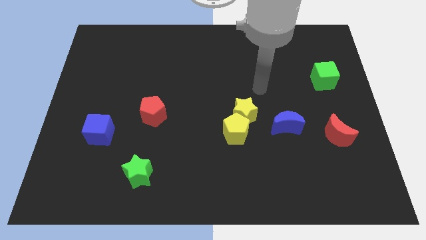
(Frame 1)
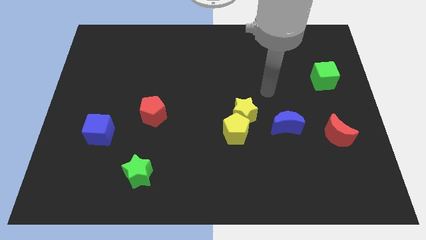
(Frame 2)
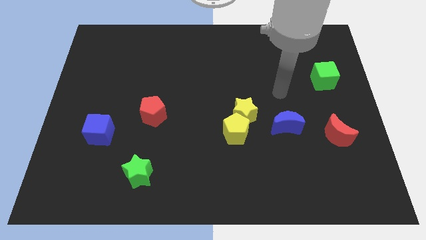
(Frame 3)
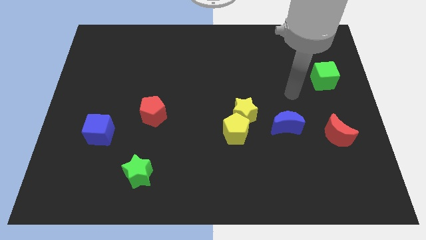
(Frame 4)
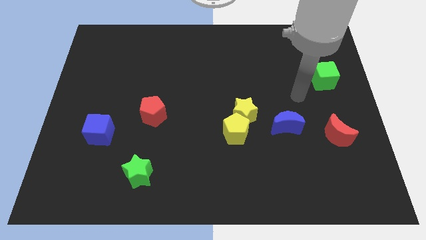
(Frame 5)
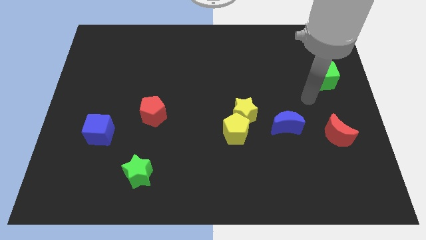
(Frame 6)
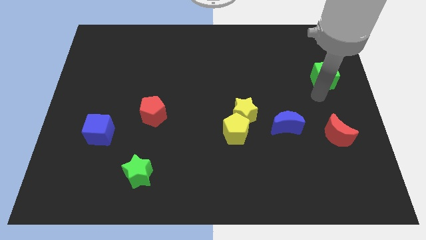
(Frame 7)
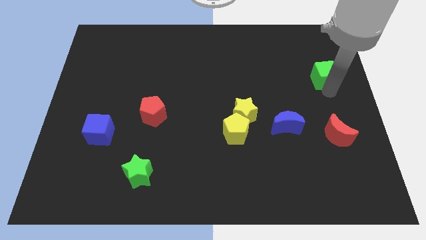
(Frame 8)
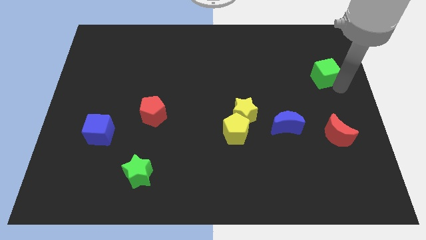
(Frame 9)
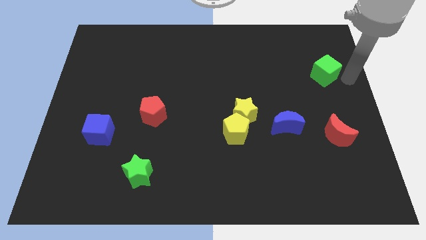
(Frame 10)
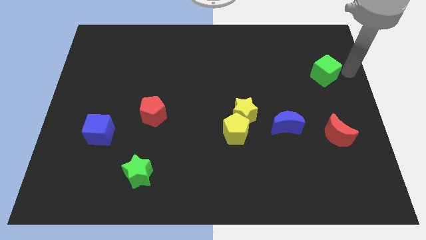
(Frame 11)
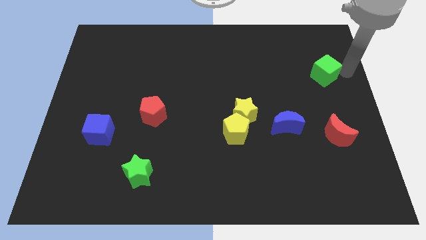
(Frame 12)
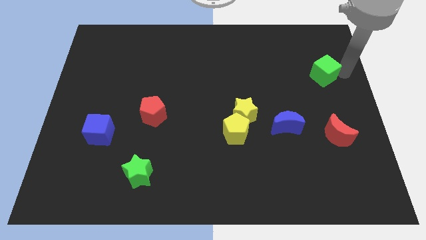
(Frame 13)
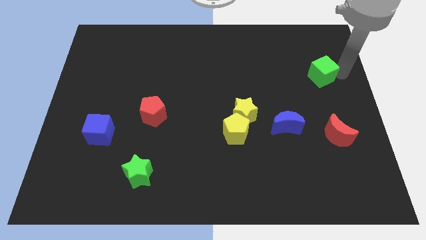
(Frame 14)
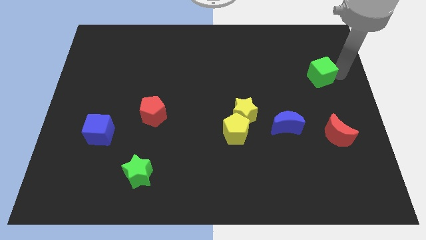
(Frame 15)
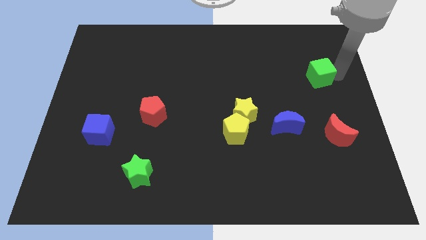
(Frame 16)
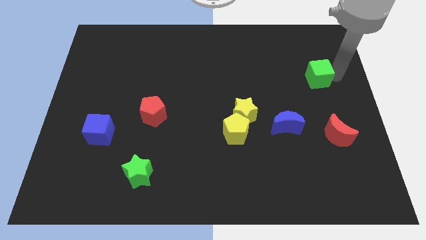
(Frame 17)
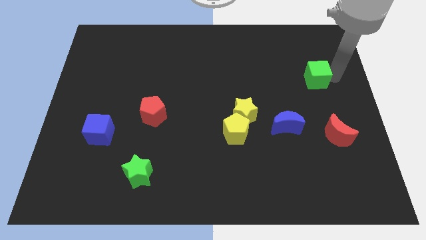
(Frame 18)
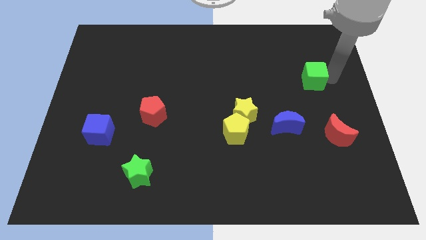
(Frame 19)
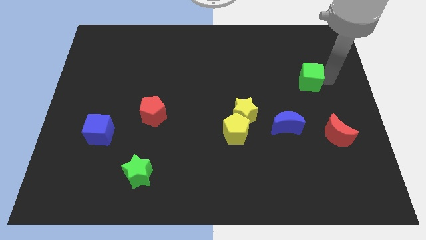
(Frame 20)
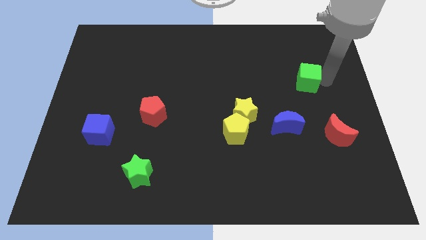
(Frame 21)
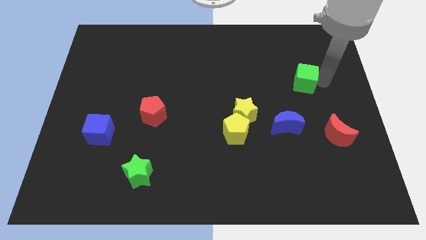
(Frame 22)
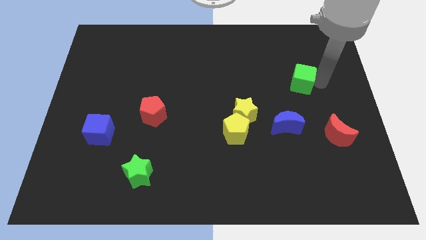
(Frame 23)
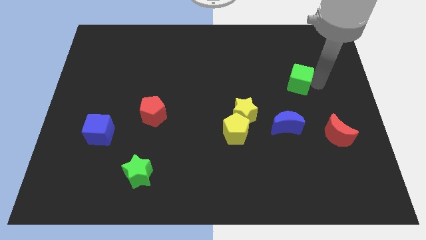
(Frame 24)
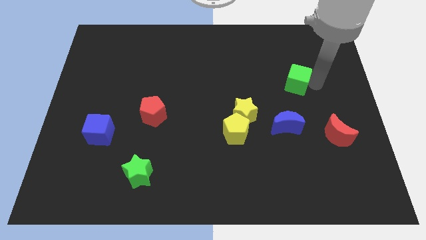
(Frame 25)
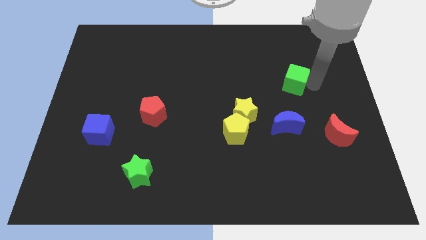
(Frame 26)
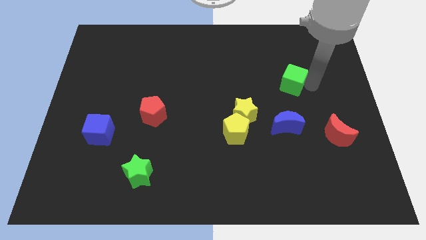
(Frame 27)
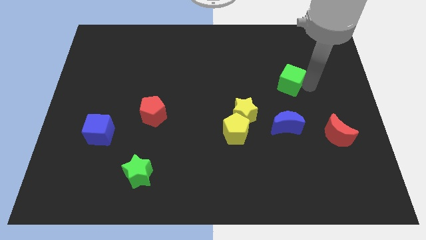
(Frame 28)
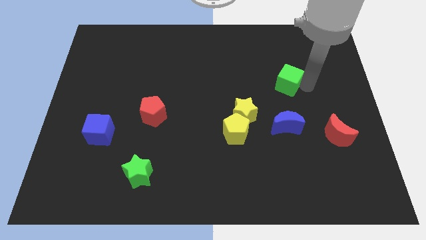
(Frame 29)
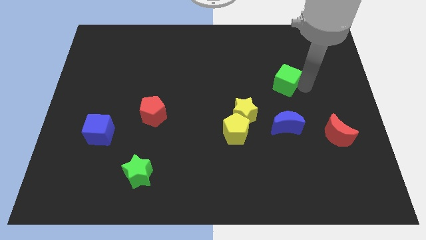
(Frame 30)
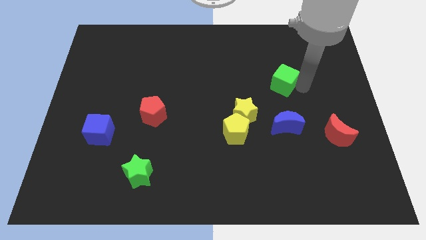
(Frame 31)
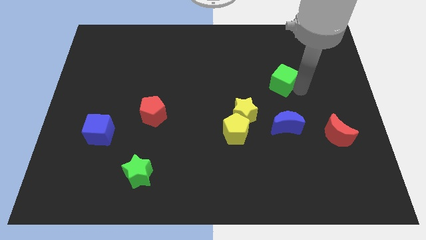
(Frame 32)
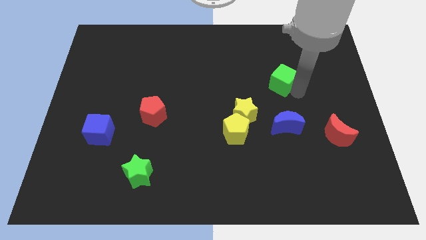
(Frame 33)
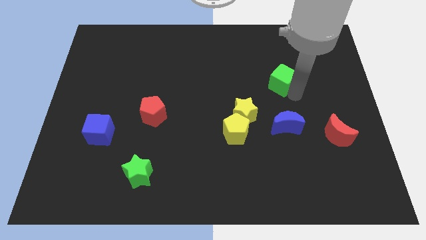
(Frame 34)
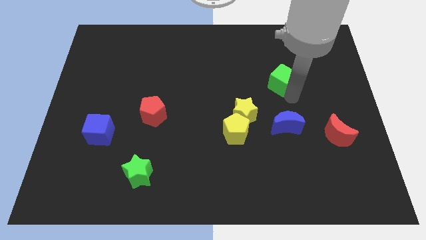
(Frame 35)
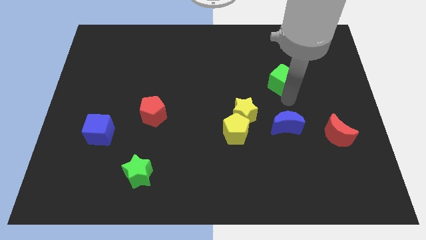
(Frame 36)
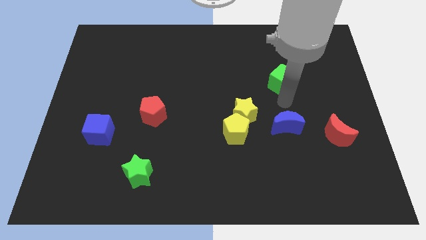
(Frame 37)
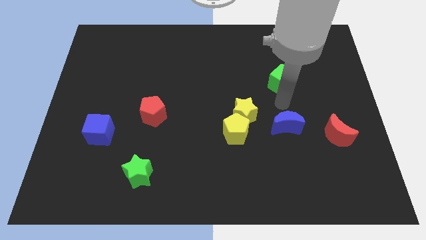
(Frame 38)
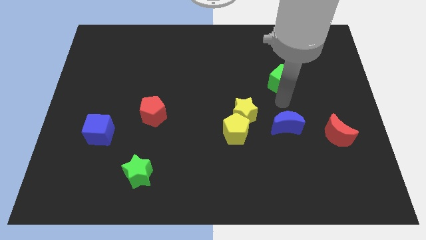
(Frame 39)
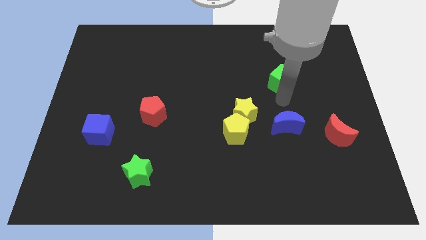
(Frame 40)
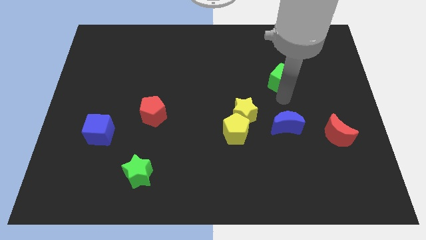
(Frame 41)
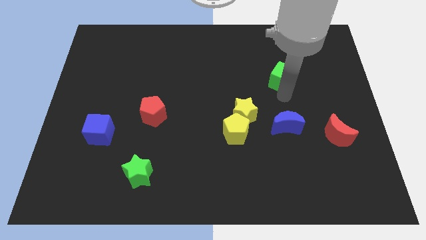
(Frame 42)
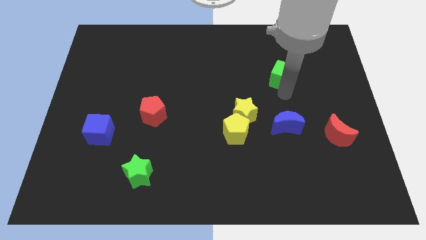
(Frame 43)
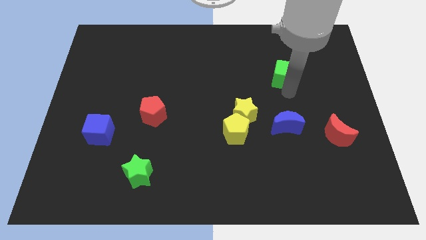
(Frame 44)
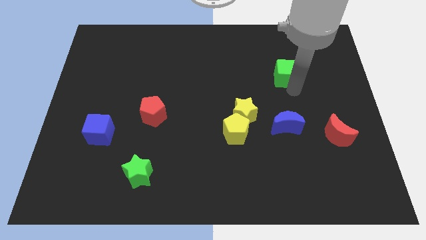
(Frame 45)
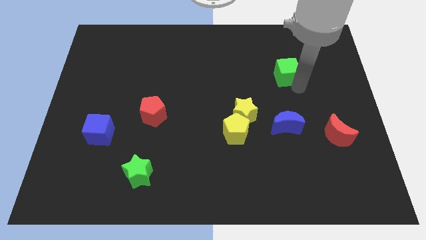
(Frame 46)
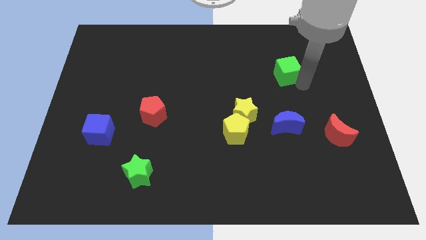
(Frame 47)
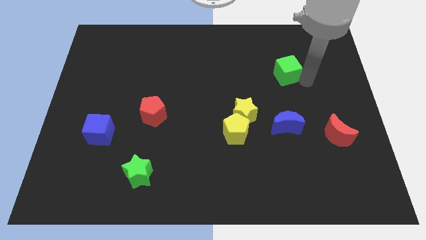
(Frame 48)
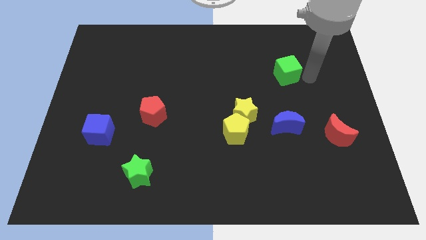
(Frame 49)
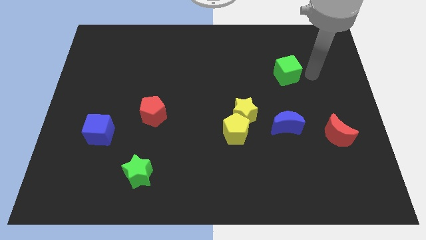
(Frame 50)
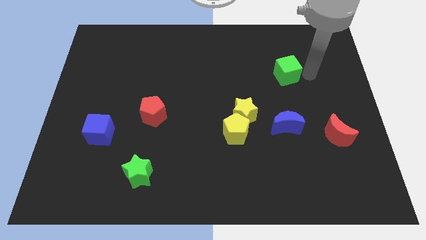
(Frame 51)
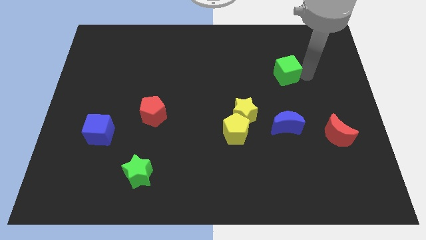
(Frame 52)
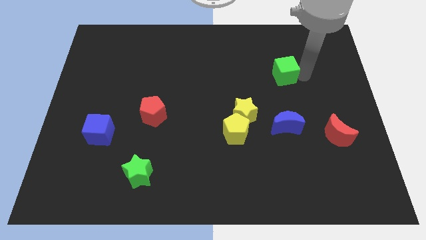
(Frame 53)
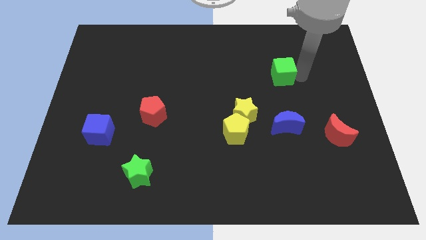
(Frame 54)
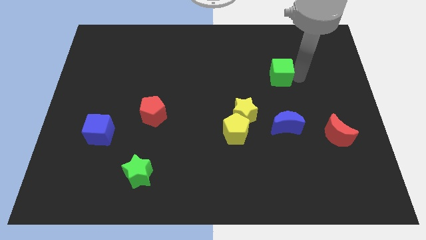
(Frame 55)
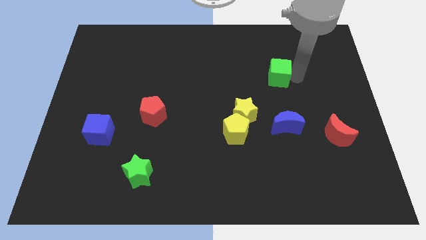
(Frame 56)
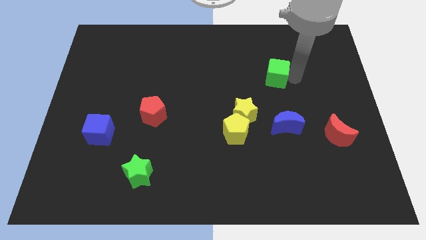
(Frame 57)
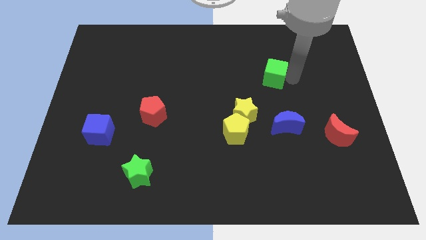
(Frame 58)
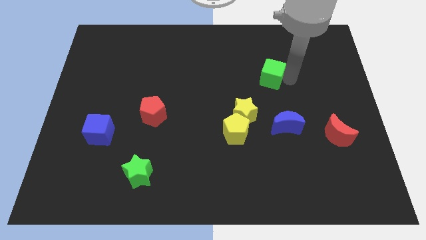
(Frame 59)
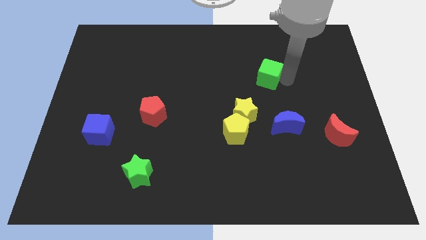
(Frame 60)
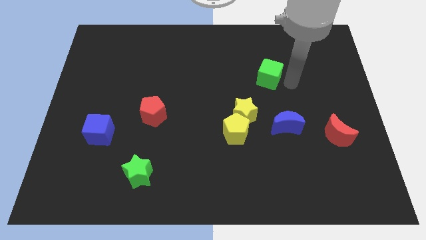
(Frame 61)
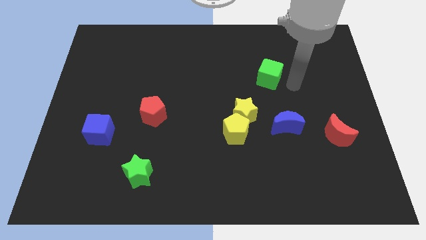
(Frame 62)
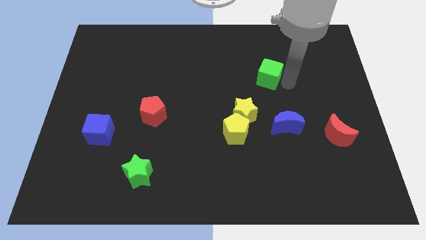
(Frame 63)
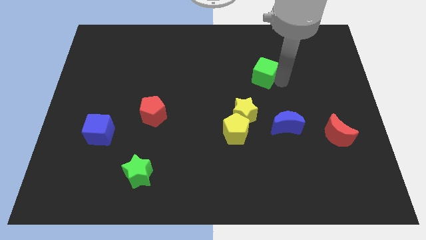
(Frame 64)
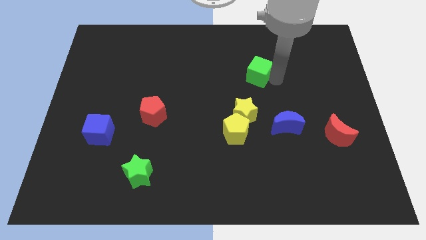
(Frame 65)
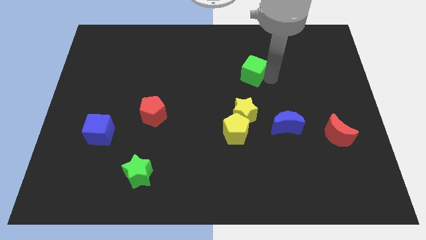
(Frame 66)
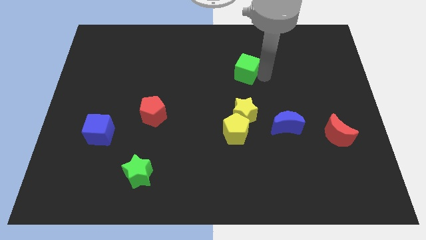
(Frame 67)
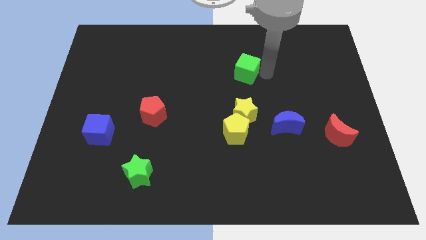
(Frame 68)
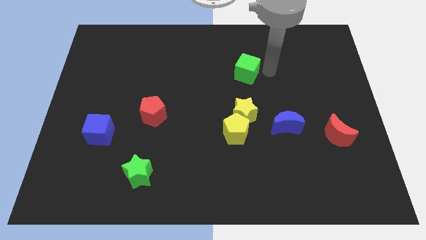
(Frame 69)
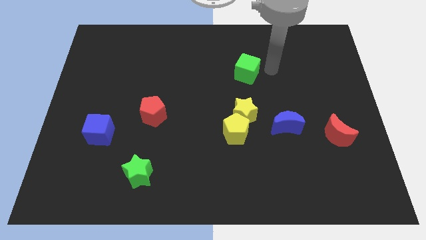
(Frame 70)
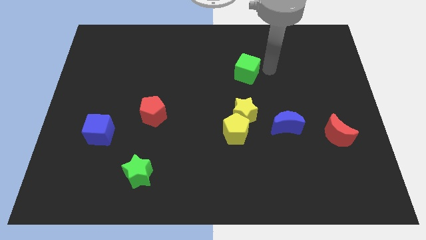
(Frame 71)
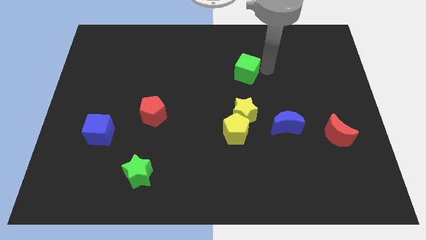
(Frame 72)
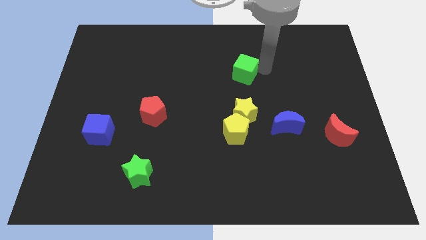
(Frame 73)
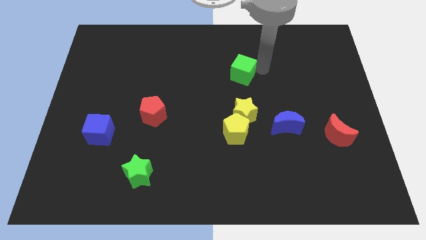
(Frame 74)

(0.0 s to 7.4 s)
push the green cube left
